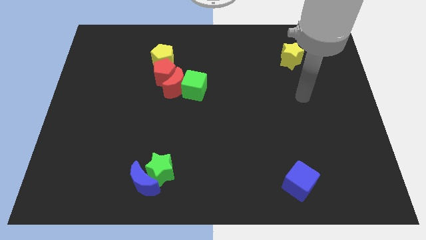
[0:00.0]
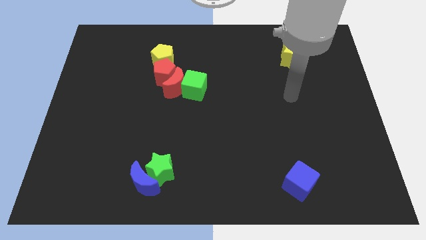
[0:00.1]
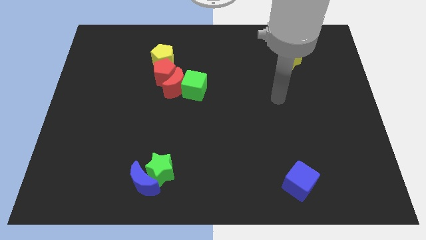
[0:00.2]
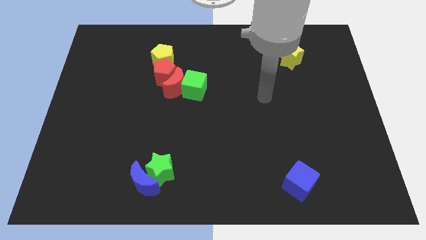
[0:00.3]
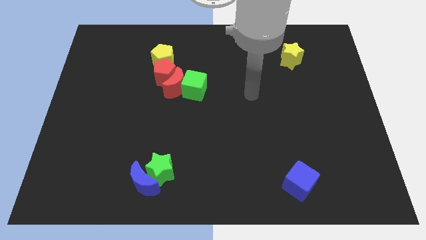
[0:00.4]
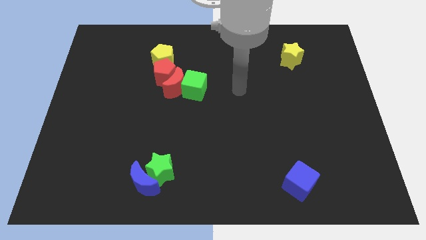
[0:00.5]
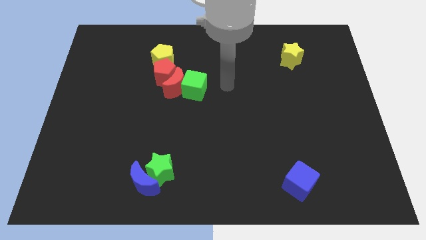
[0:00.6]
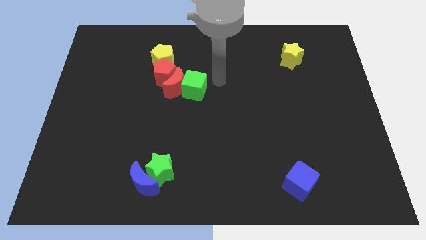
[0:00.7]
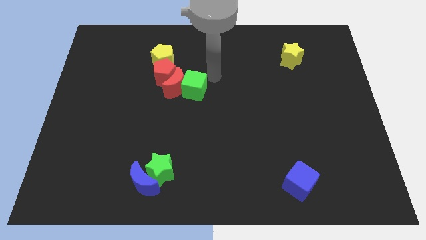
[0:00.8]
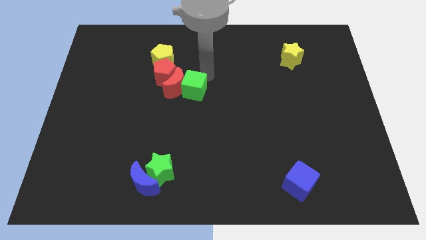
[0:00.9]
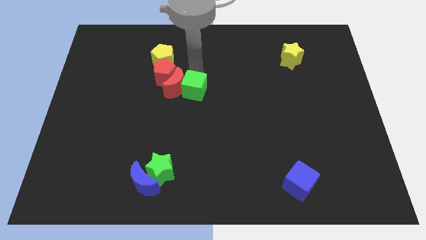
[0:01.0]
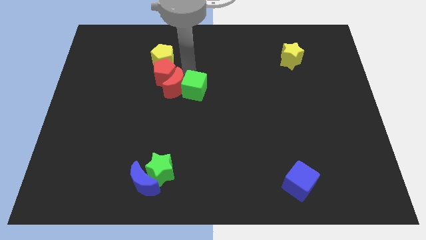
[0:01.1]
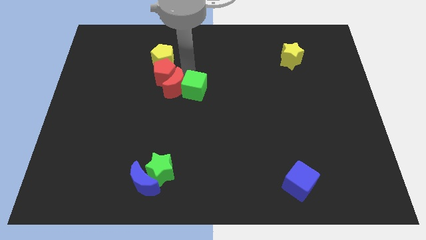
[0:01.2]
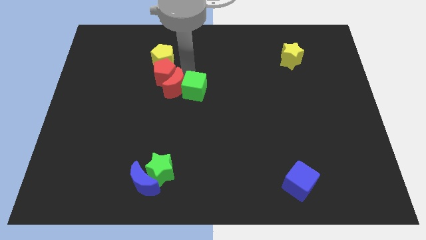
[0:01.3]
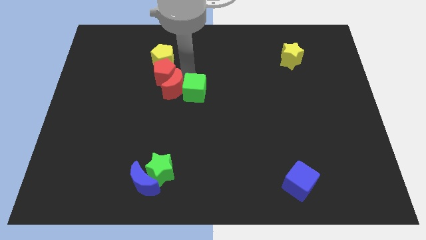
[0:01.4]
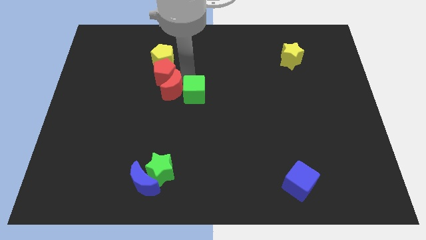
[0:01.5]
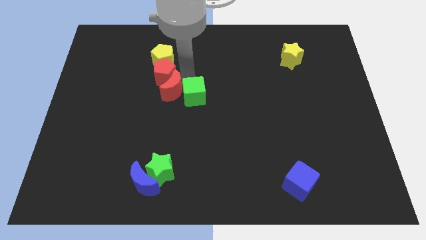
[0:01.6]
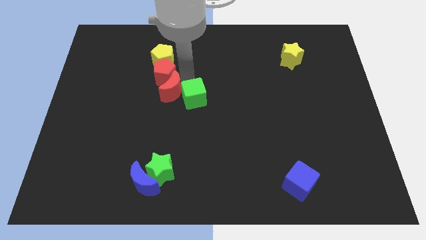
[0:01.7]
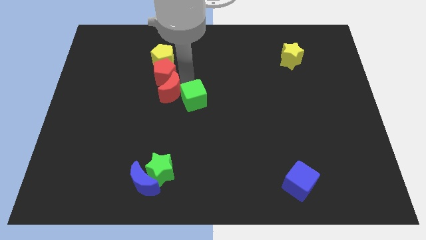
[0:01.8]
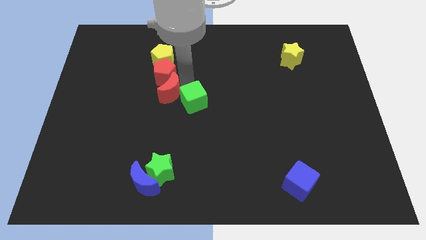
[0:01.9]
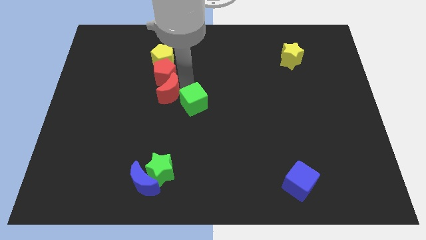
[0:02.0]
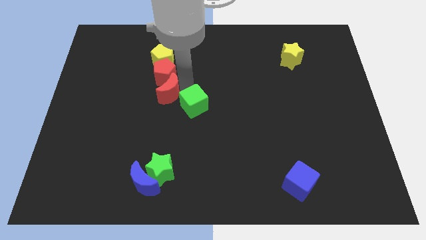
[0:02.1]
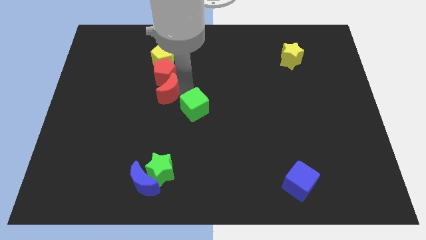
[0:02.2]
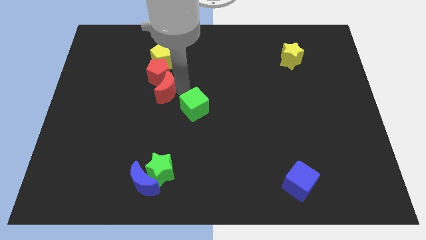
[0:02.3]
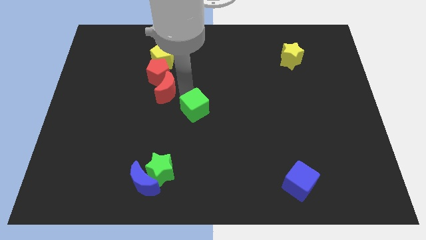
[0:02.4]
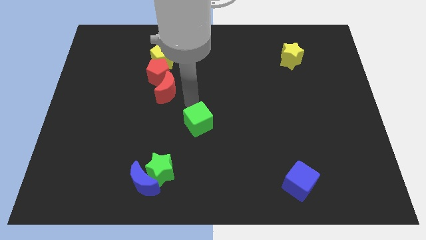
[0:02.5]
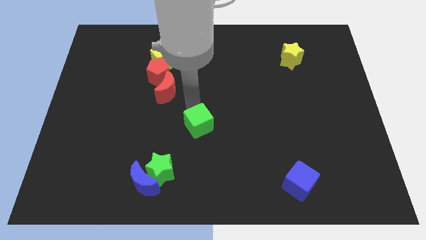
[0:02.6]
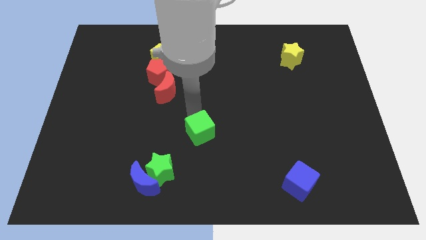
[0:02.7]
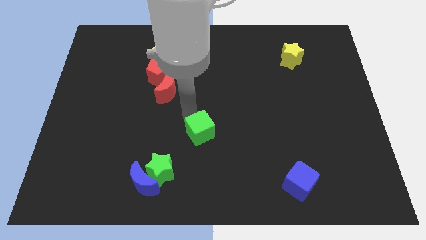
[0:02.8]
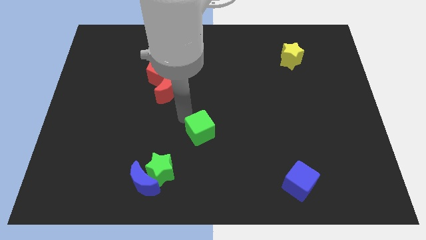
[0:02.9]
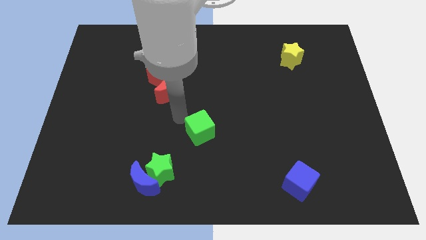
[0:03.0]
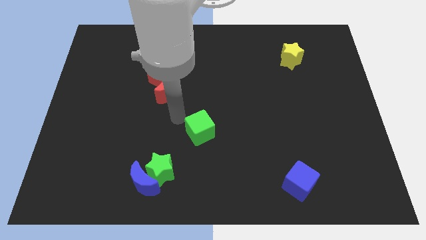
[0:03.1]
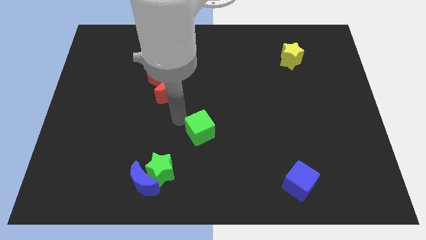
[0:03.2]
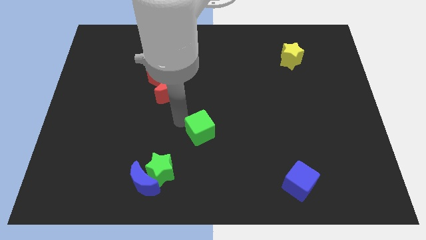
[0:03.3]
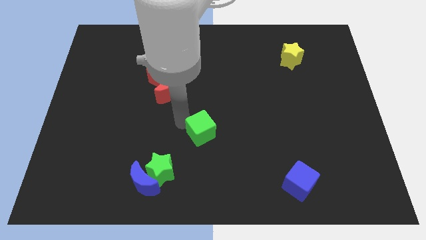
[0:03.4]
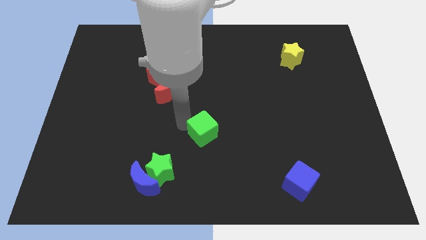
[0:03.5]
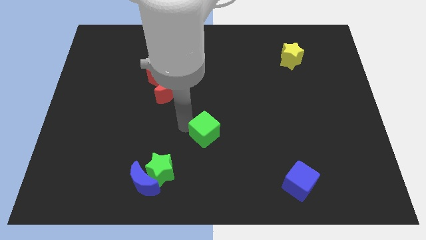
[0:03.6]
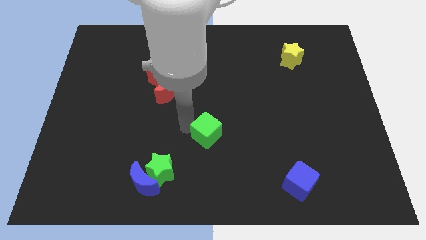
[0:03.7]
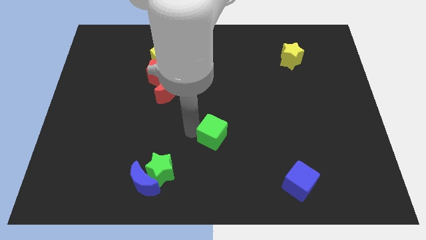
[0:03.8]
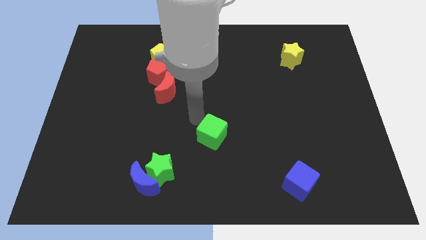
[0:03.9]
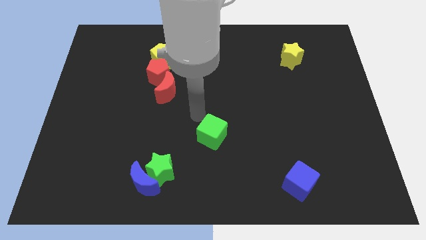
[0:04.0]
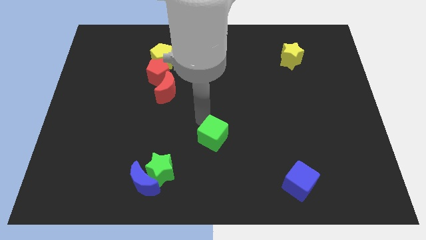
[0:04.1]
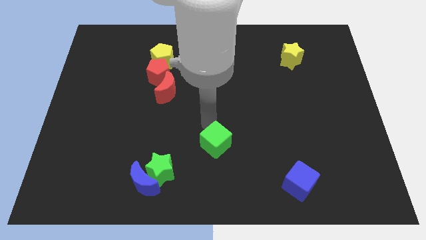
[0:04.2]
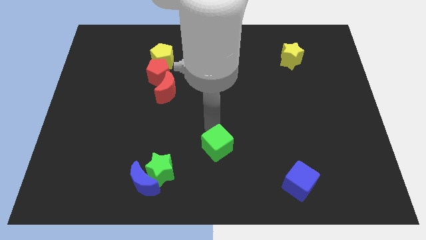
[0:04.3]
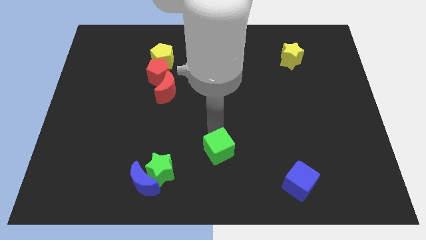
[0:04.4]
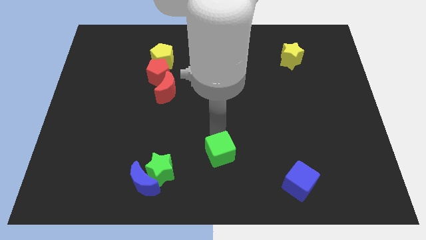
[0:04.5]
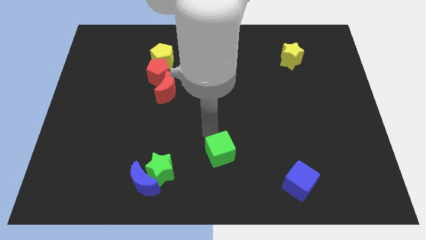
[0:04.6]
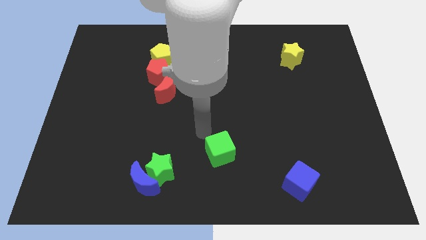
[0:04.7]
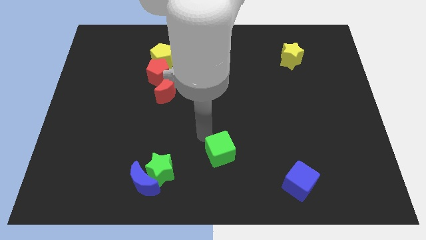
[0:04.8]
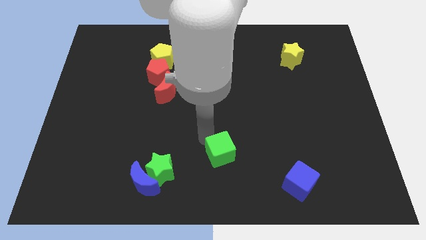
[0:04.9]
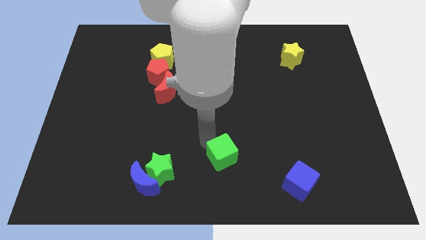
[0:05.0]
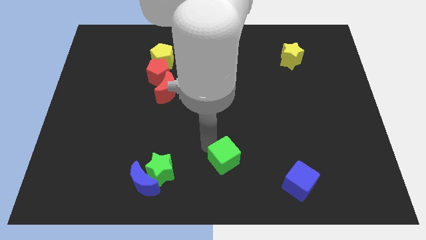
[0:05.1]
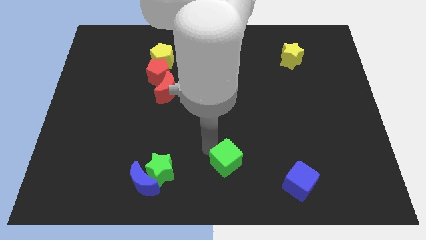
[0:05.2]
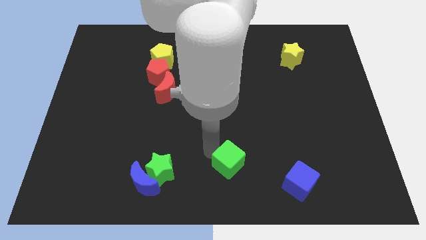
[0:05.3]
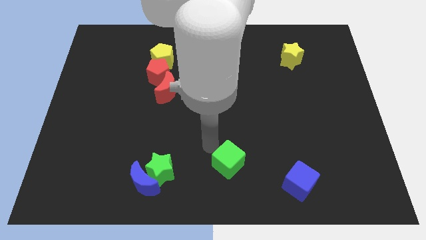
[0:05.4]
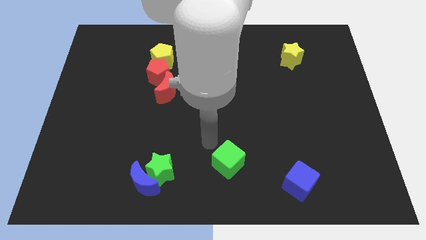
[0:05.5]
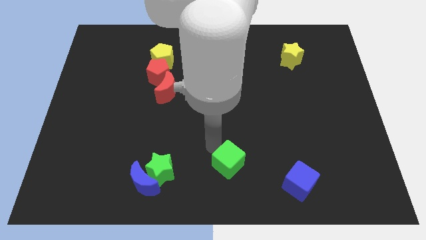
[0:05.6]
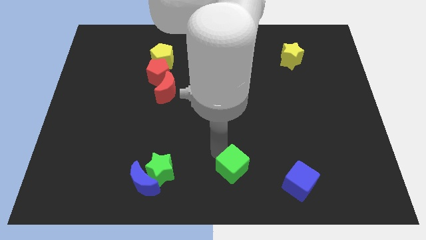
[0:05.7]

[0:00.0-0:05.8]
push the green cube just left of the blue cube

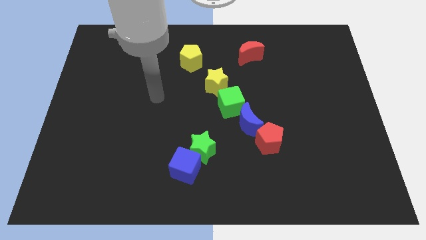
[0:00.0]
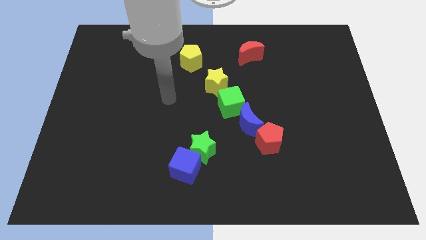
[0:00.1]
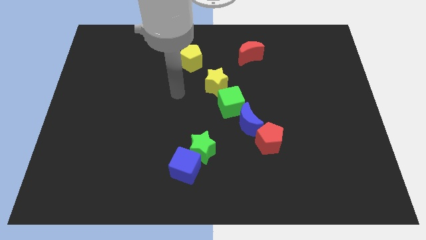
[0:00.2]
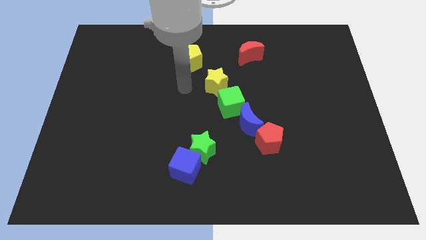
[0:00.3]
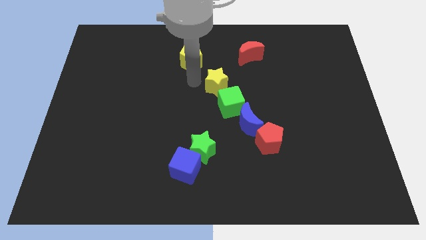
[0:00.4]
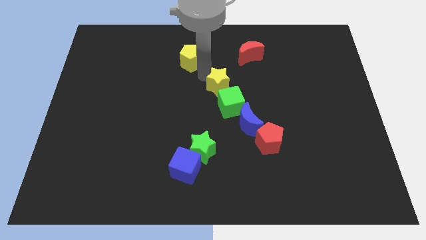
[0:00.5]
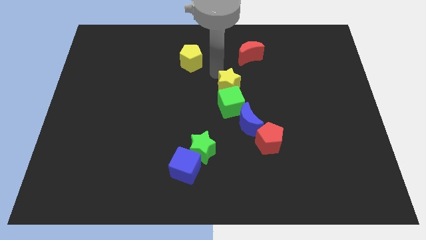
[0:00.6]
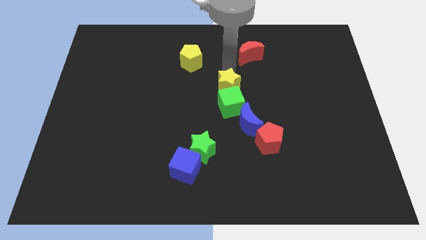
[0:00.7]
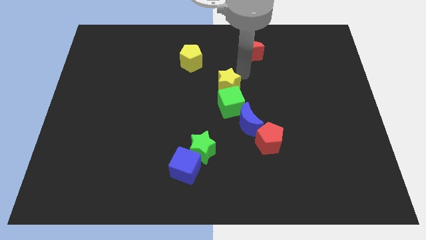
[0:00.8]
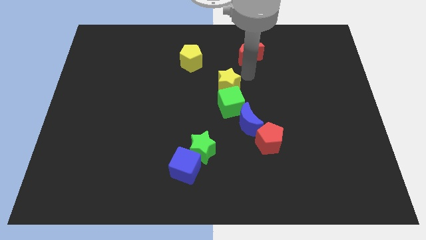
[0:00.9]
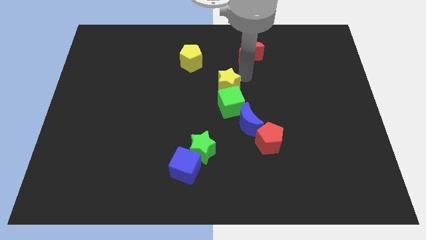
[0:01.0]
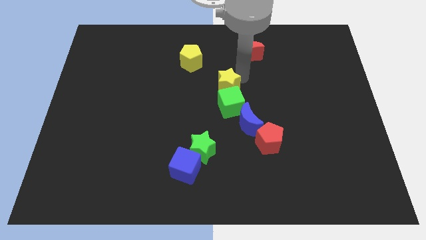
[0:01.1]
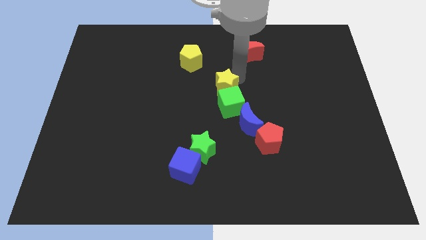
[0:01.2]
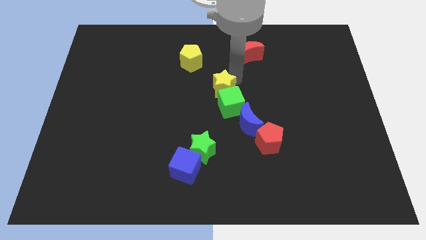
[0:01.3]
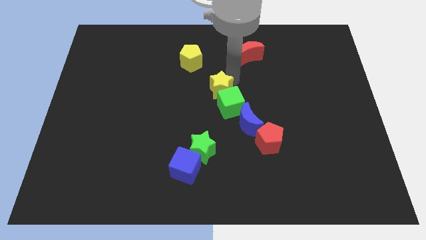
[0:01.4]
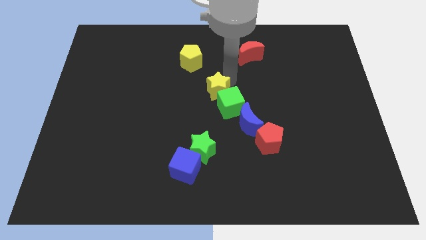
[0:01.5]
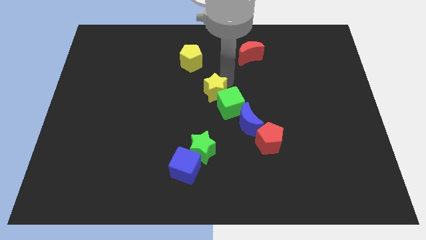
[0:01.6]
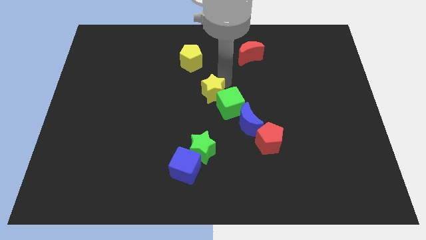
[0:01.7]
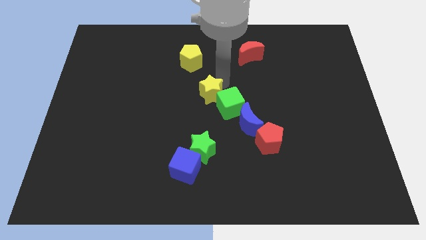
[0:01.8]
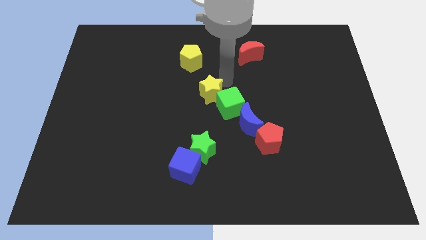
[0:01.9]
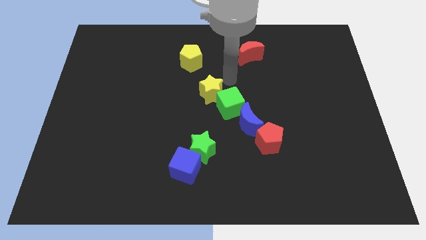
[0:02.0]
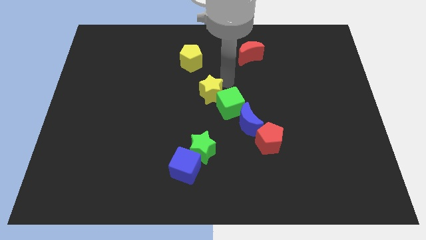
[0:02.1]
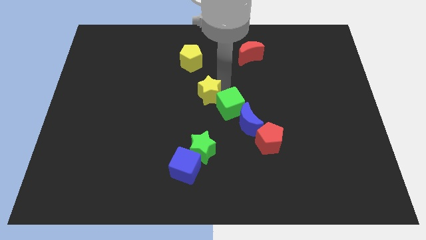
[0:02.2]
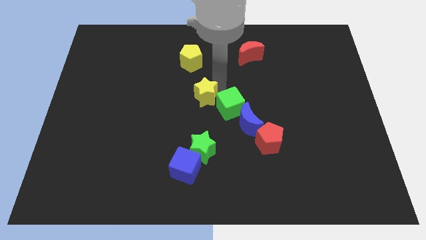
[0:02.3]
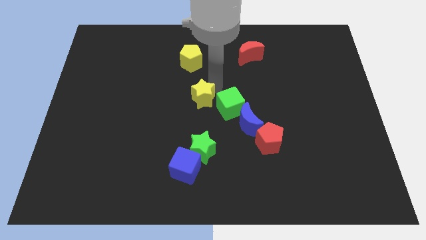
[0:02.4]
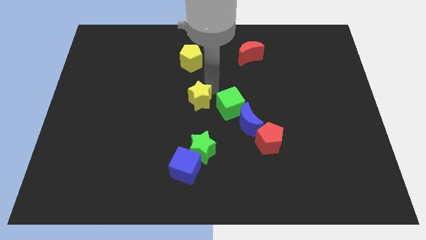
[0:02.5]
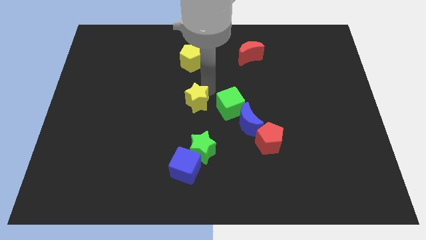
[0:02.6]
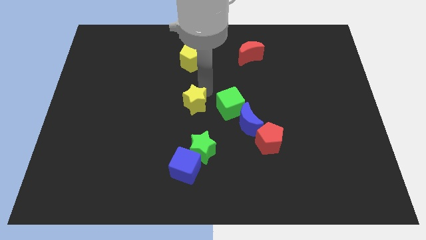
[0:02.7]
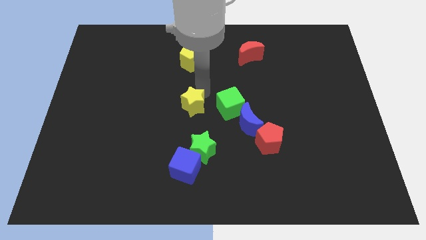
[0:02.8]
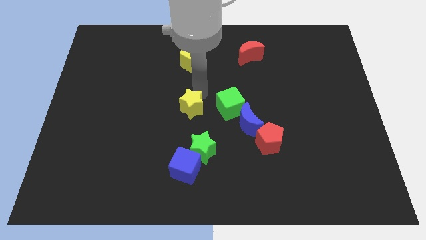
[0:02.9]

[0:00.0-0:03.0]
move the yellow star above the blue cube
